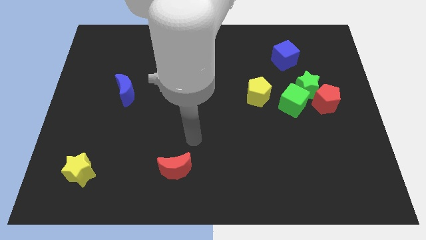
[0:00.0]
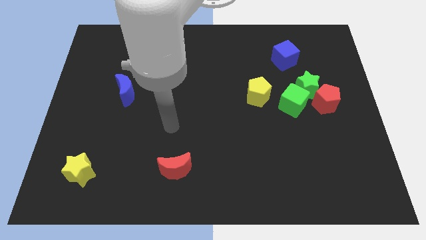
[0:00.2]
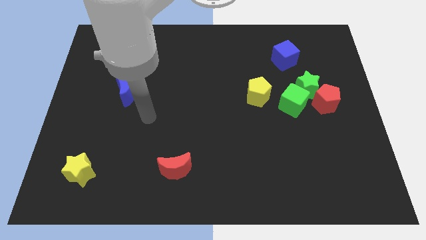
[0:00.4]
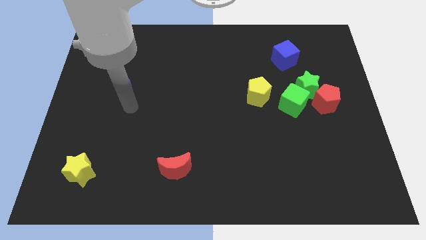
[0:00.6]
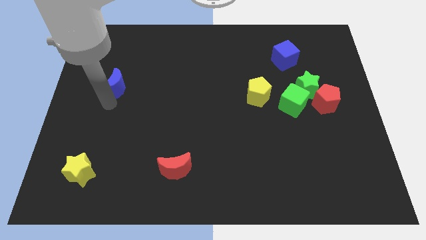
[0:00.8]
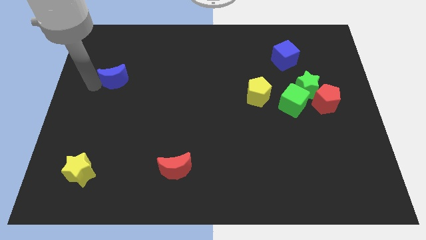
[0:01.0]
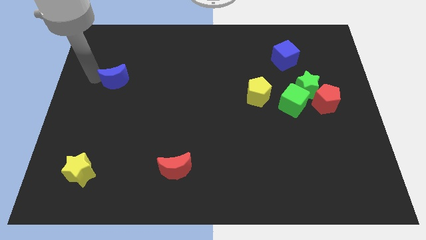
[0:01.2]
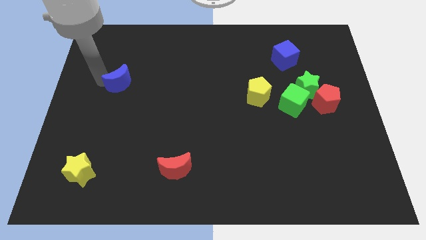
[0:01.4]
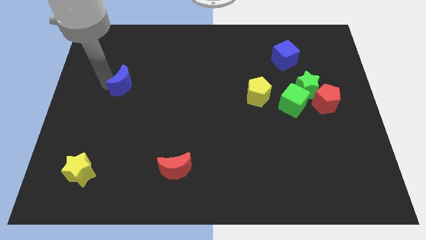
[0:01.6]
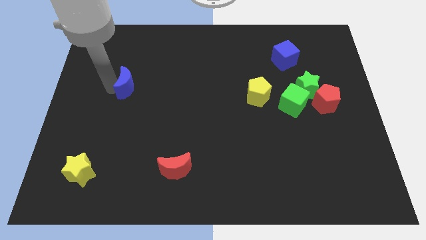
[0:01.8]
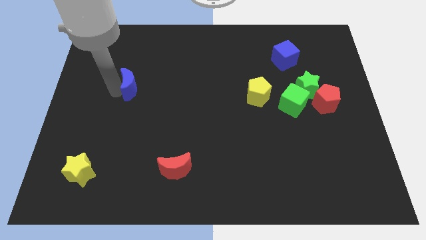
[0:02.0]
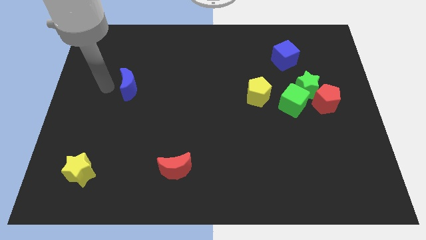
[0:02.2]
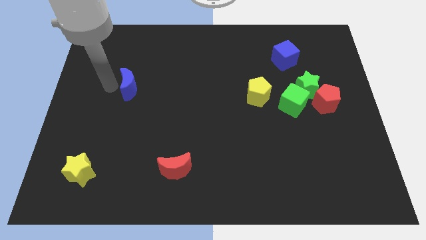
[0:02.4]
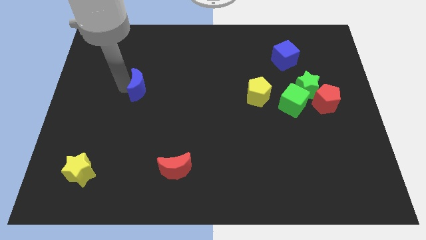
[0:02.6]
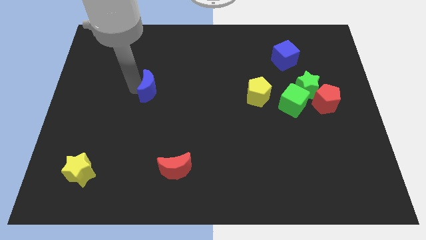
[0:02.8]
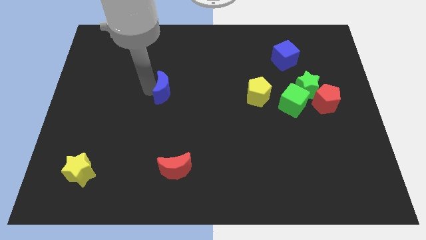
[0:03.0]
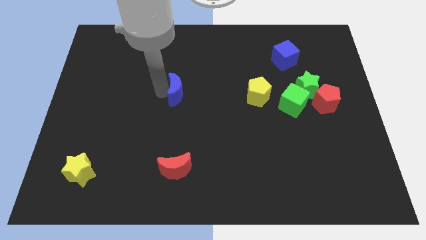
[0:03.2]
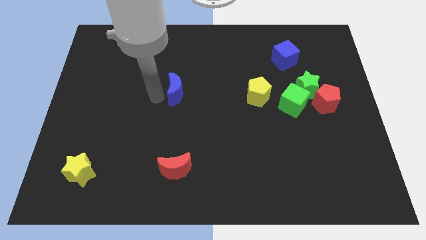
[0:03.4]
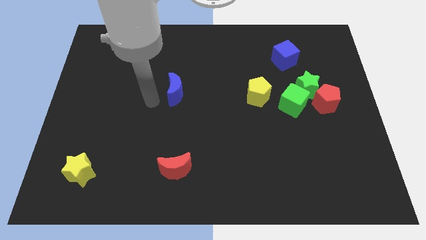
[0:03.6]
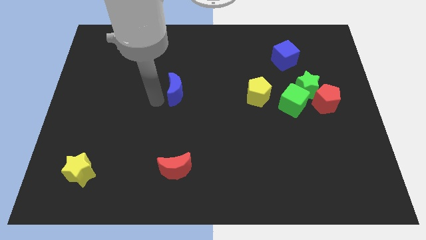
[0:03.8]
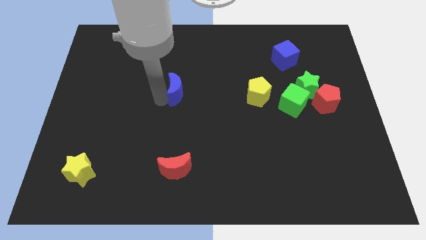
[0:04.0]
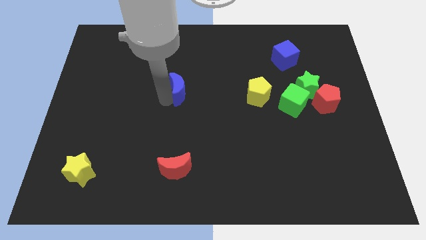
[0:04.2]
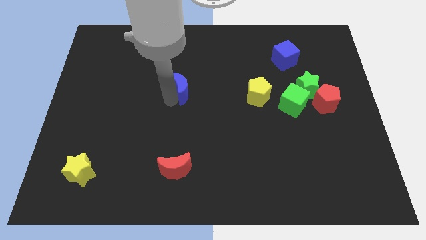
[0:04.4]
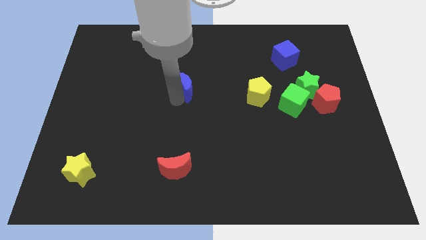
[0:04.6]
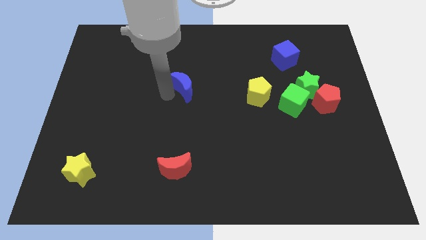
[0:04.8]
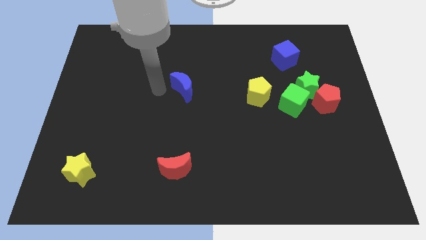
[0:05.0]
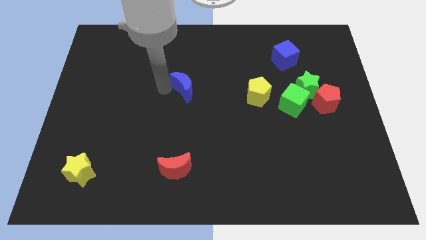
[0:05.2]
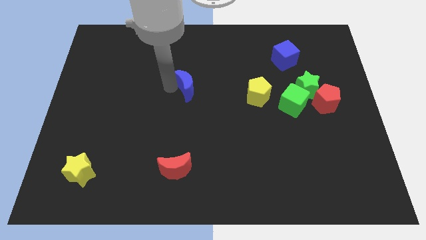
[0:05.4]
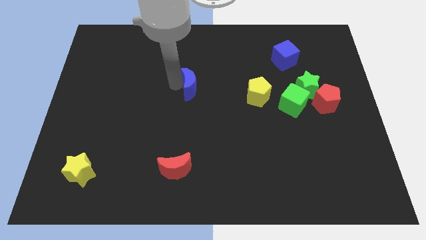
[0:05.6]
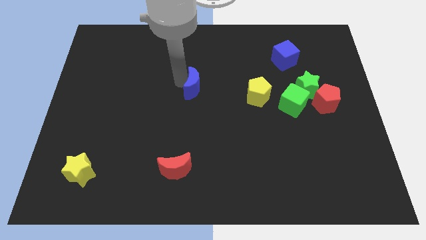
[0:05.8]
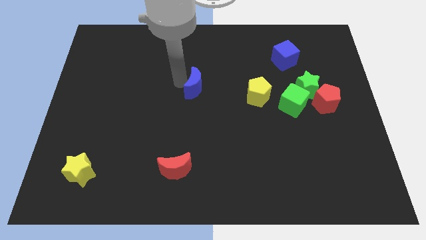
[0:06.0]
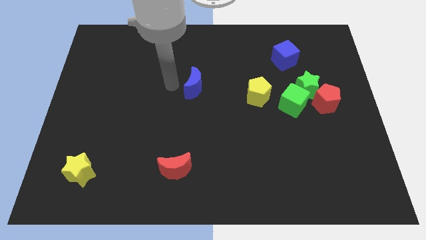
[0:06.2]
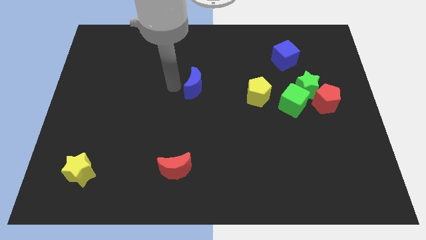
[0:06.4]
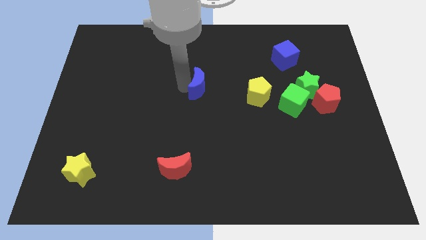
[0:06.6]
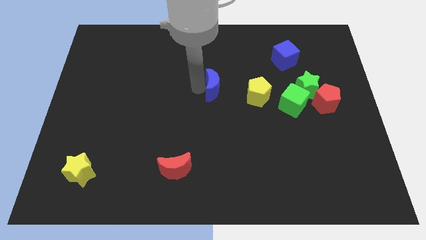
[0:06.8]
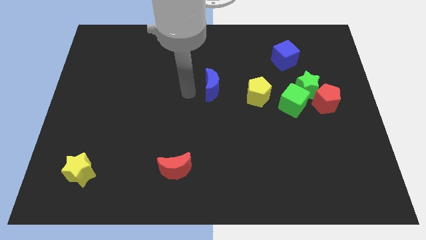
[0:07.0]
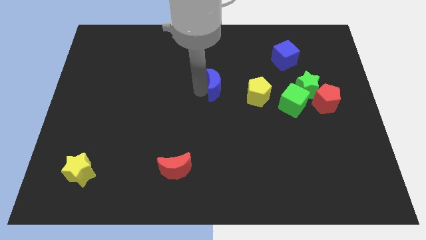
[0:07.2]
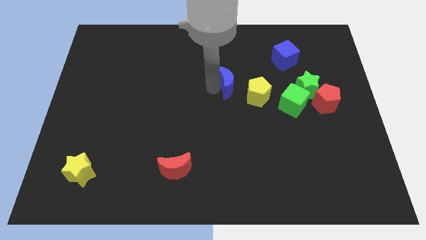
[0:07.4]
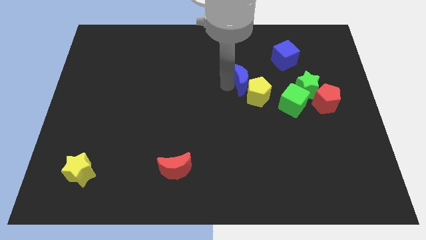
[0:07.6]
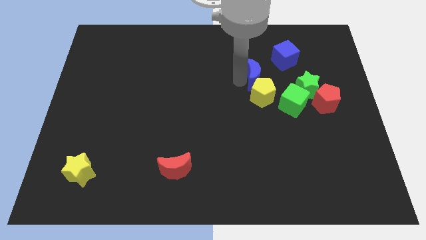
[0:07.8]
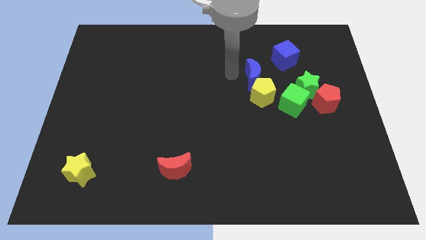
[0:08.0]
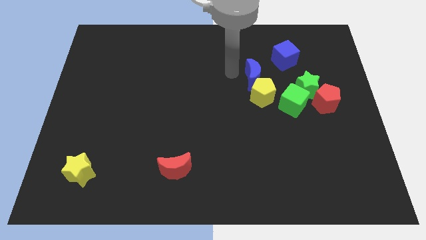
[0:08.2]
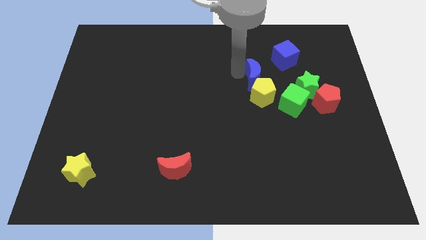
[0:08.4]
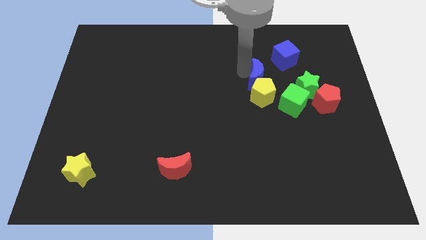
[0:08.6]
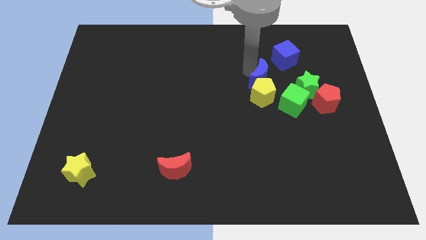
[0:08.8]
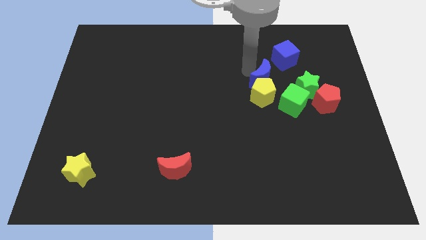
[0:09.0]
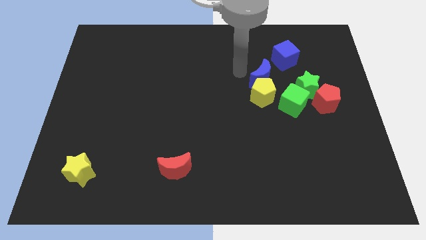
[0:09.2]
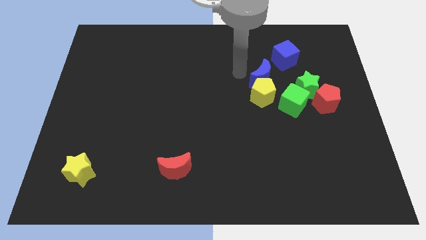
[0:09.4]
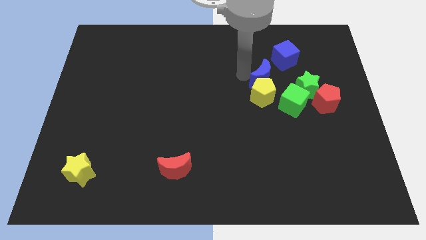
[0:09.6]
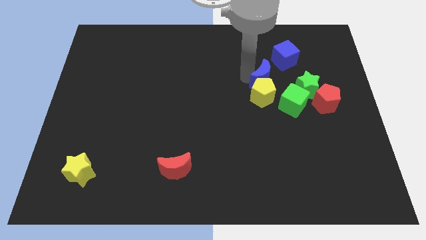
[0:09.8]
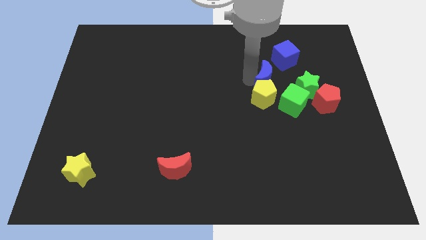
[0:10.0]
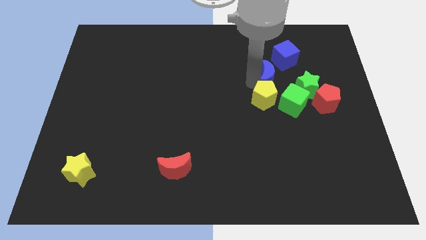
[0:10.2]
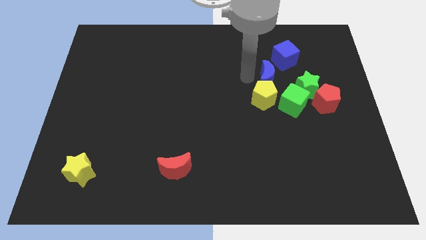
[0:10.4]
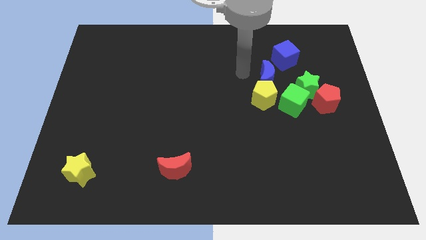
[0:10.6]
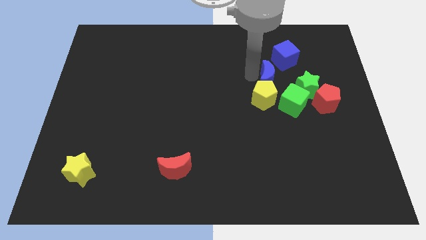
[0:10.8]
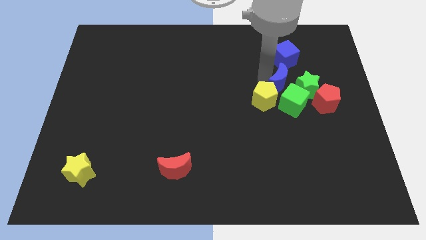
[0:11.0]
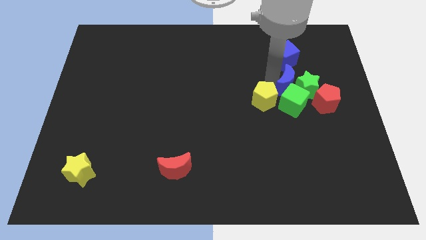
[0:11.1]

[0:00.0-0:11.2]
put the blue moon towards the green star
